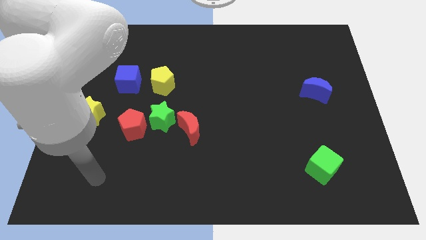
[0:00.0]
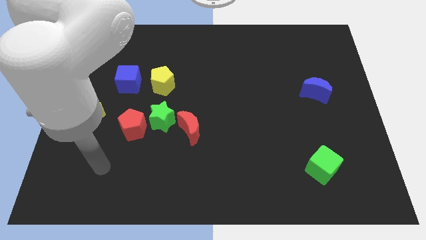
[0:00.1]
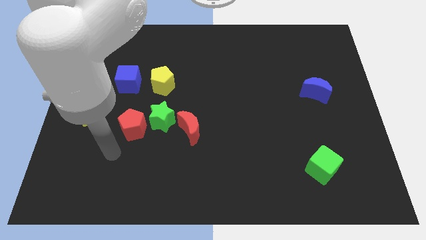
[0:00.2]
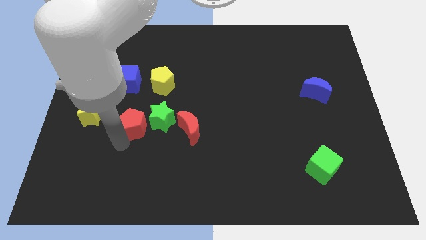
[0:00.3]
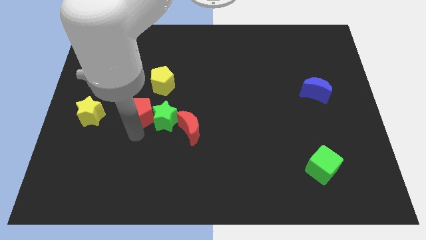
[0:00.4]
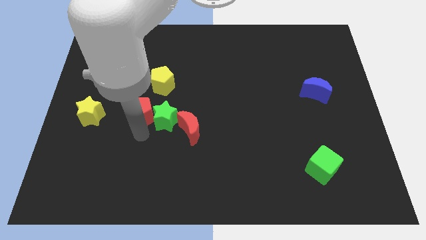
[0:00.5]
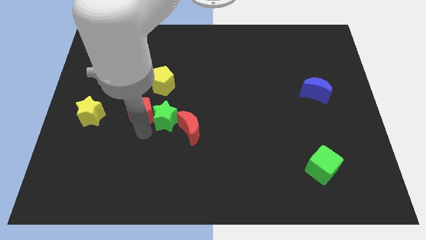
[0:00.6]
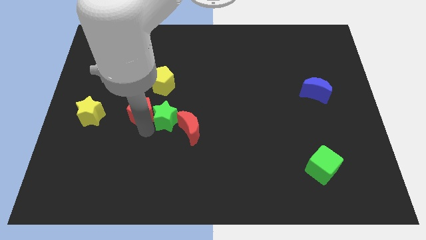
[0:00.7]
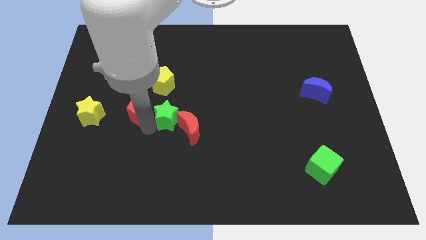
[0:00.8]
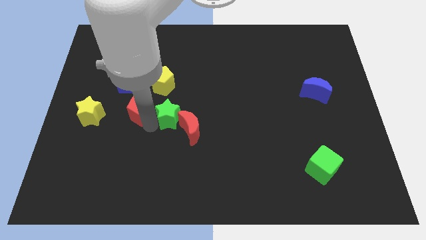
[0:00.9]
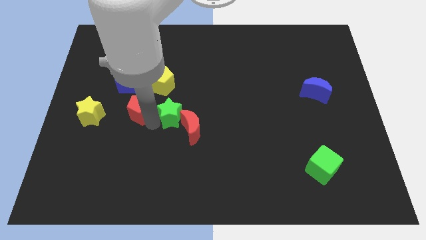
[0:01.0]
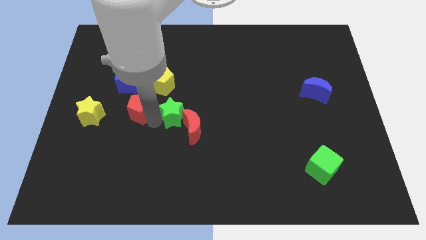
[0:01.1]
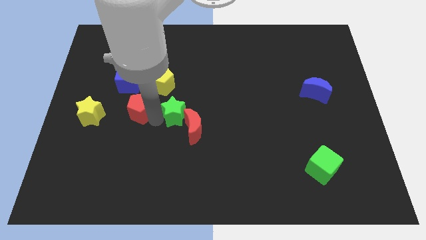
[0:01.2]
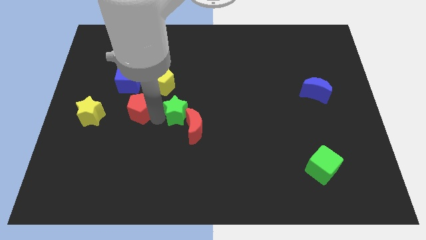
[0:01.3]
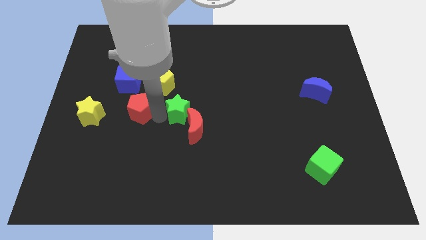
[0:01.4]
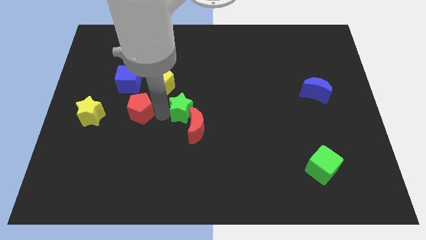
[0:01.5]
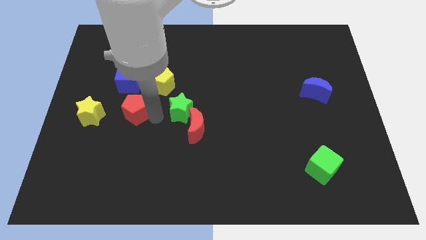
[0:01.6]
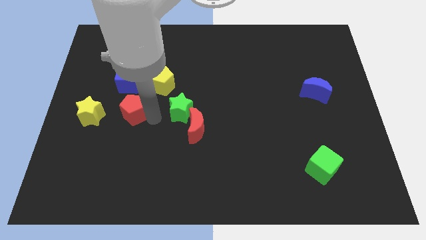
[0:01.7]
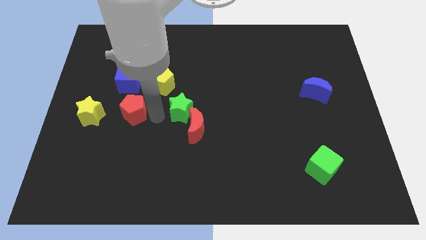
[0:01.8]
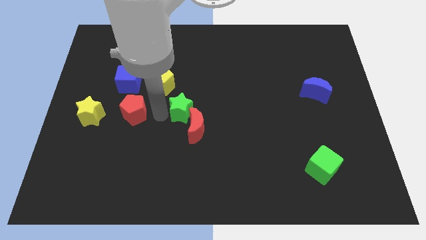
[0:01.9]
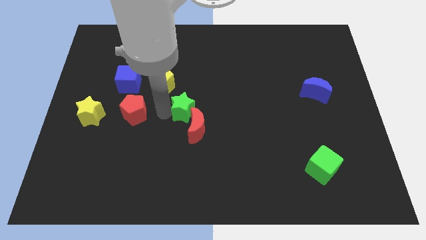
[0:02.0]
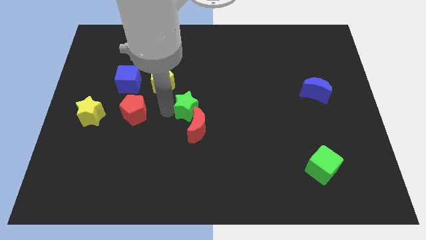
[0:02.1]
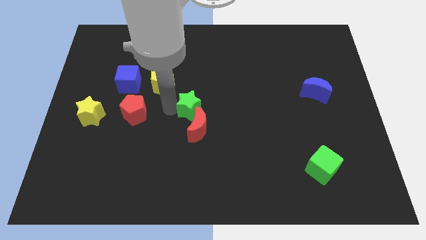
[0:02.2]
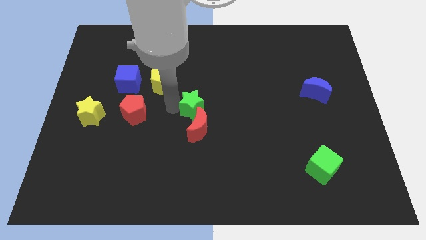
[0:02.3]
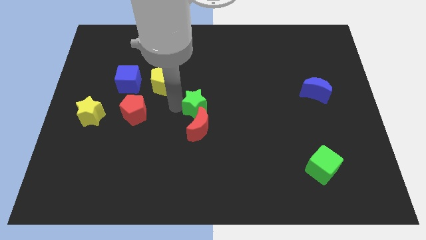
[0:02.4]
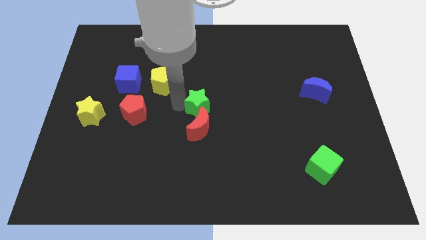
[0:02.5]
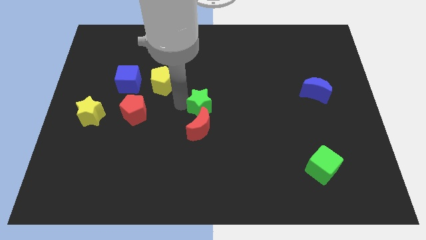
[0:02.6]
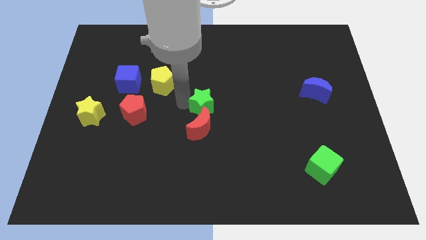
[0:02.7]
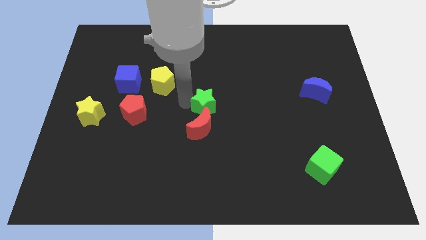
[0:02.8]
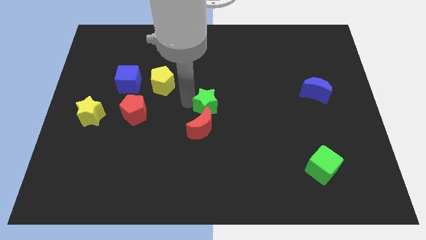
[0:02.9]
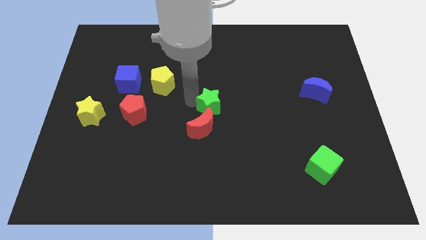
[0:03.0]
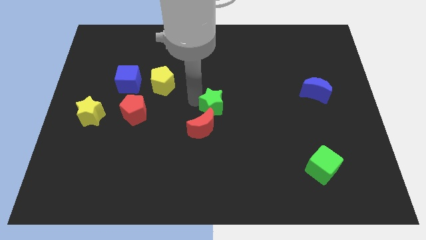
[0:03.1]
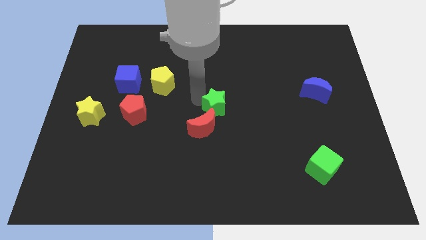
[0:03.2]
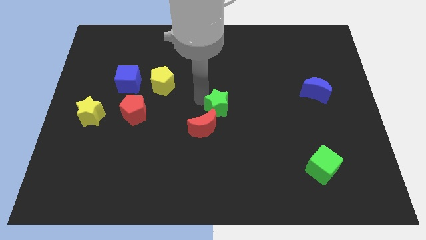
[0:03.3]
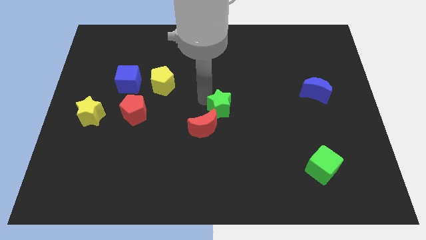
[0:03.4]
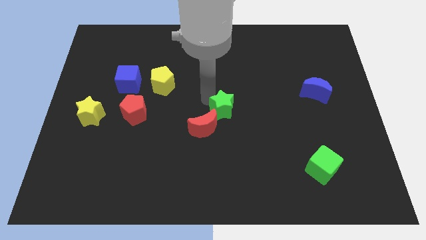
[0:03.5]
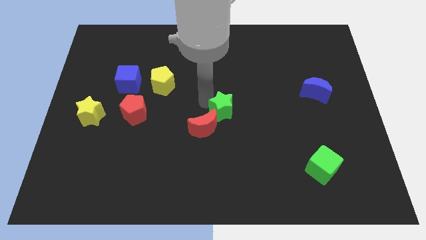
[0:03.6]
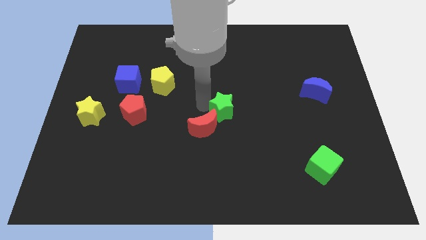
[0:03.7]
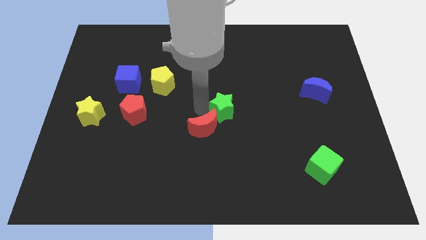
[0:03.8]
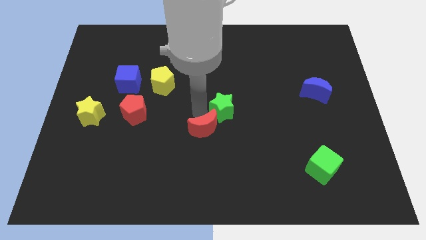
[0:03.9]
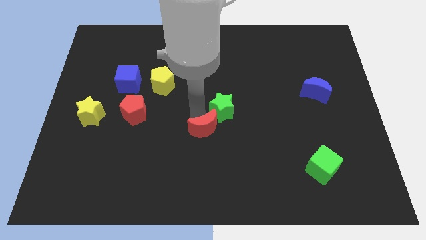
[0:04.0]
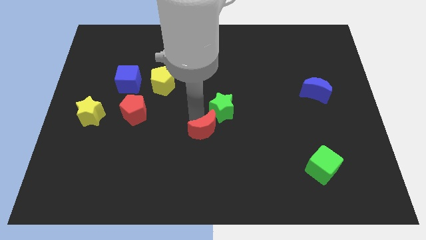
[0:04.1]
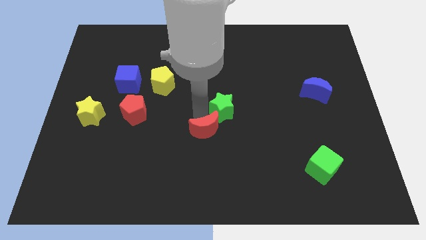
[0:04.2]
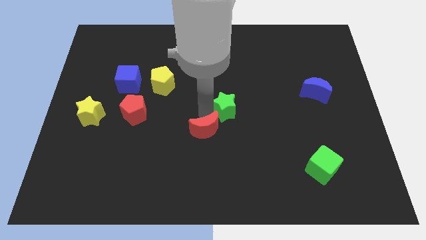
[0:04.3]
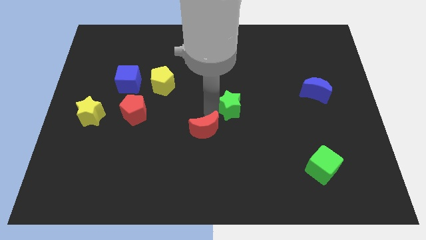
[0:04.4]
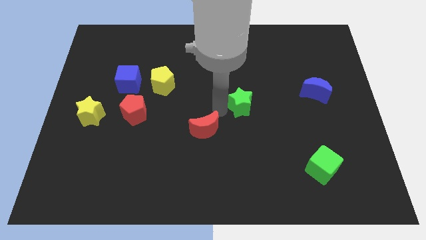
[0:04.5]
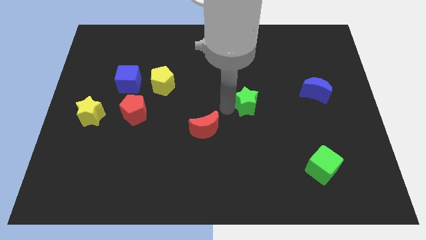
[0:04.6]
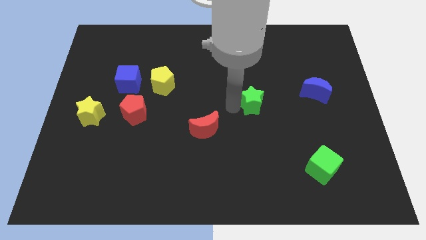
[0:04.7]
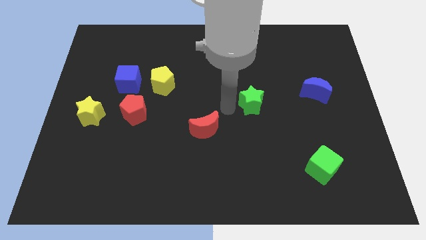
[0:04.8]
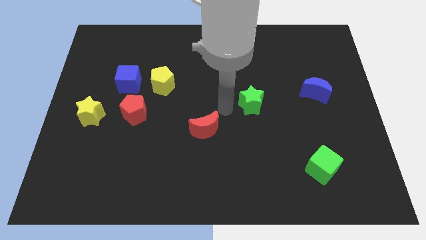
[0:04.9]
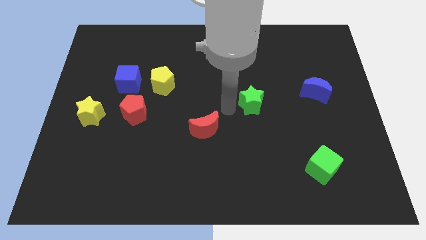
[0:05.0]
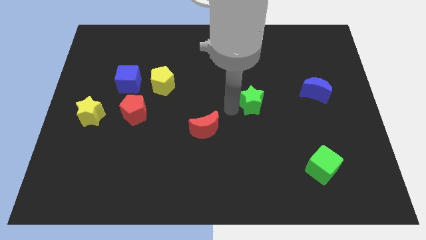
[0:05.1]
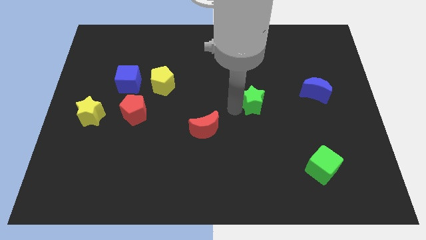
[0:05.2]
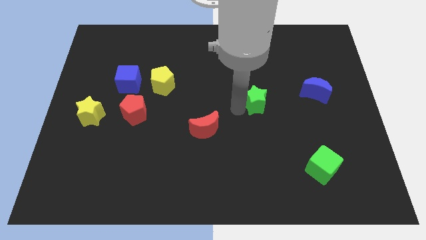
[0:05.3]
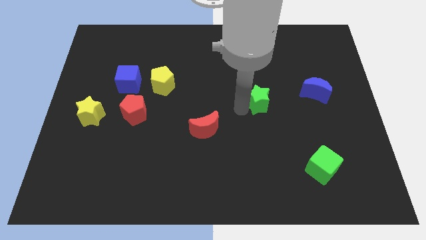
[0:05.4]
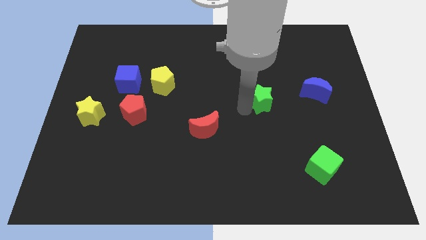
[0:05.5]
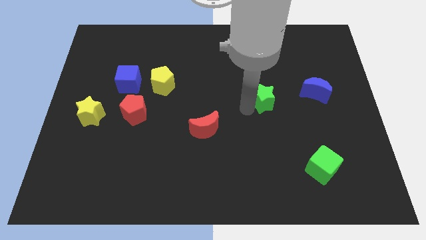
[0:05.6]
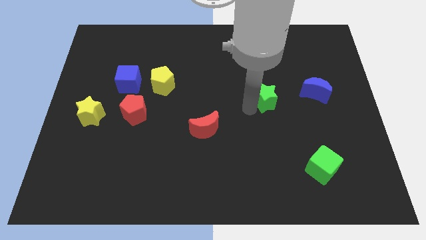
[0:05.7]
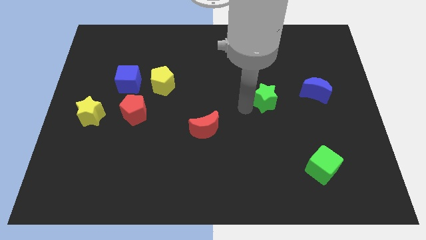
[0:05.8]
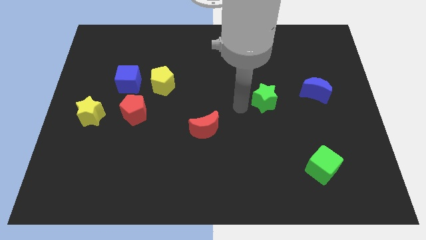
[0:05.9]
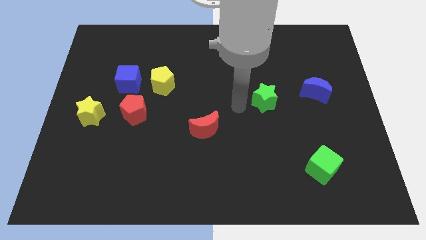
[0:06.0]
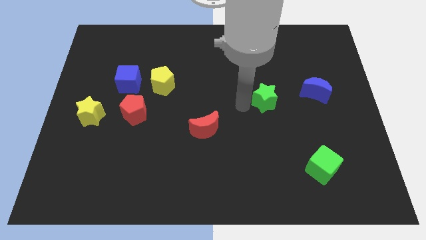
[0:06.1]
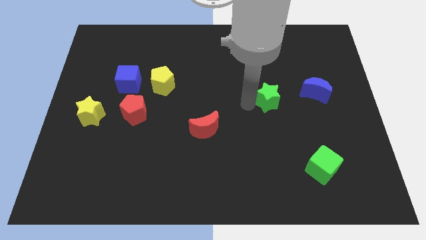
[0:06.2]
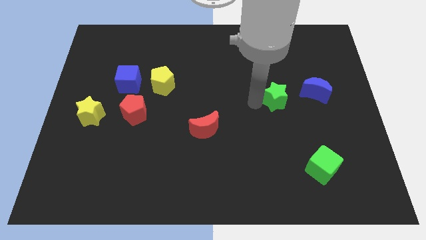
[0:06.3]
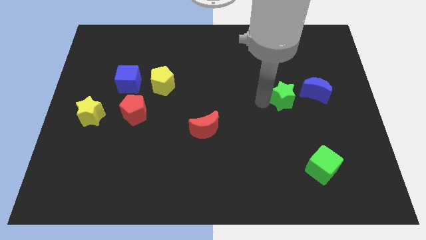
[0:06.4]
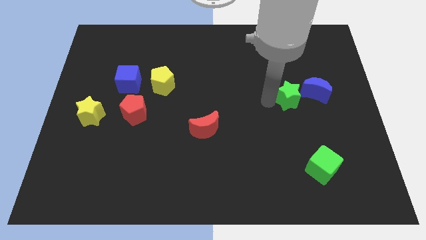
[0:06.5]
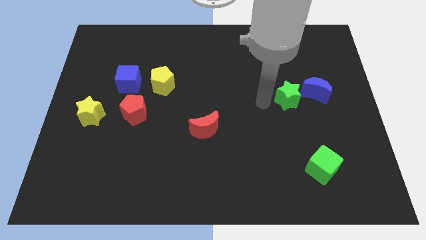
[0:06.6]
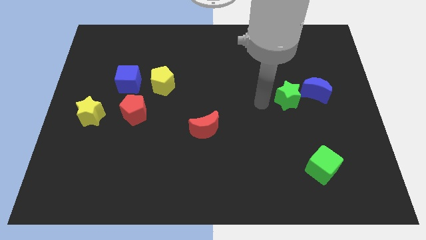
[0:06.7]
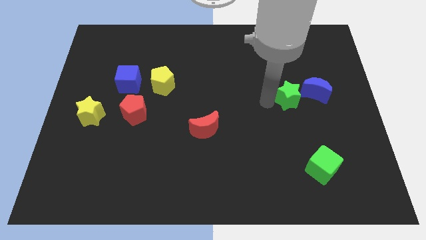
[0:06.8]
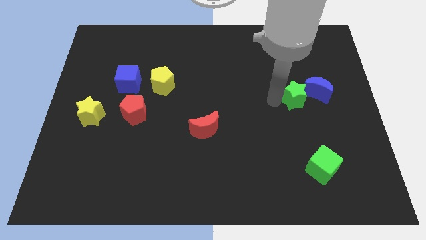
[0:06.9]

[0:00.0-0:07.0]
slide the green star close to the blue moon

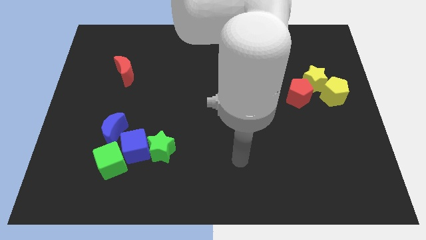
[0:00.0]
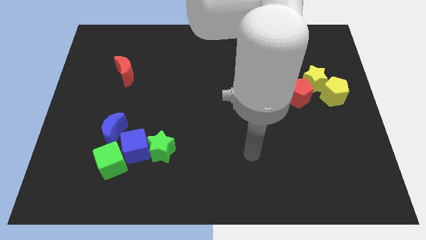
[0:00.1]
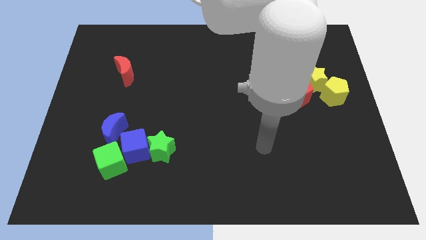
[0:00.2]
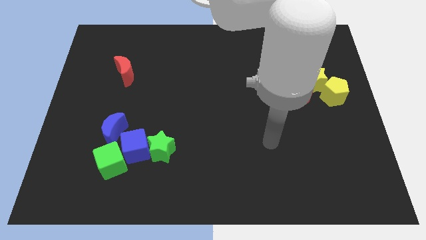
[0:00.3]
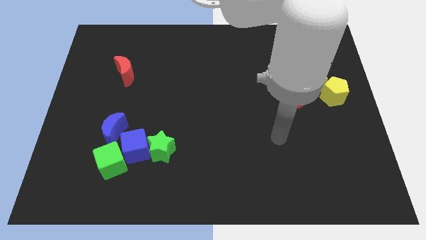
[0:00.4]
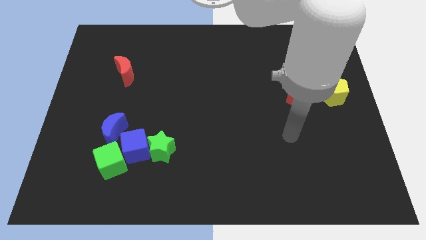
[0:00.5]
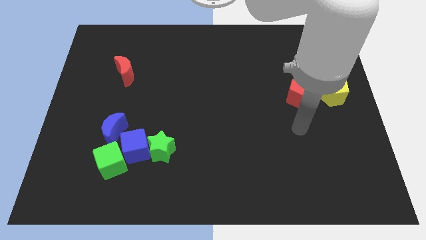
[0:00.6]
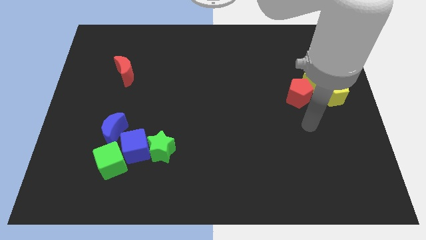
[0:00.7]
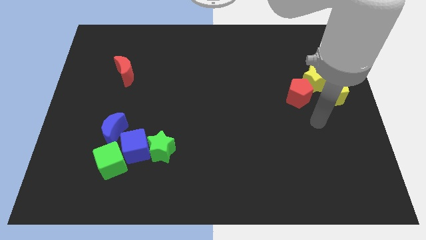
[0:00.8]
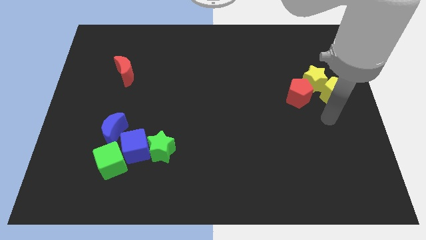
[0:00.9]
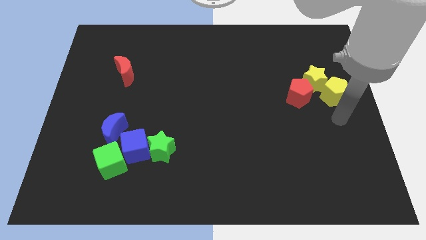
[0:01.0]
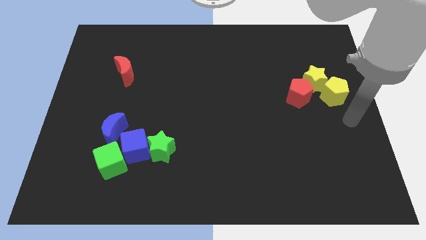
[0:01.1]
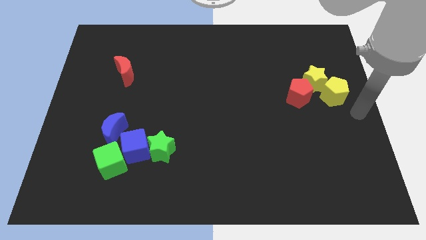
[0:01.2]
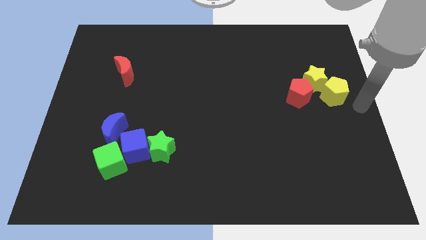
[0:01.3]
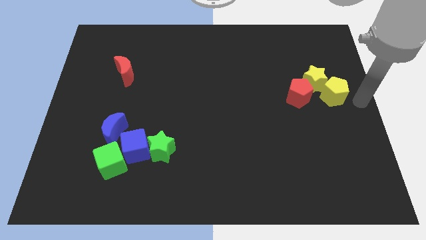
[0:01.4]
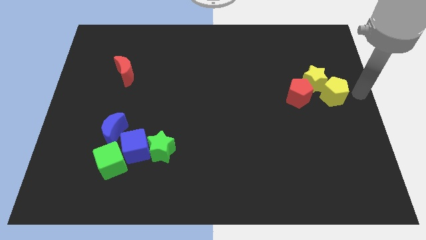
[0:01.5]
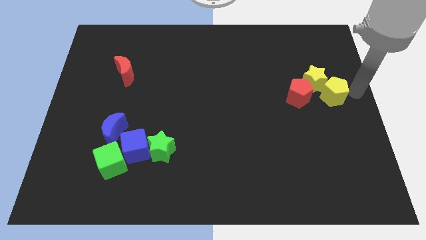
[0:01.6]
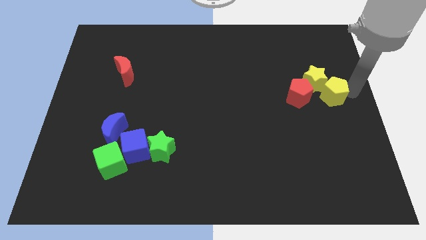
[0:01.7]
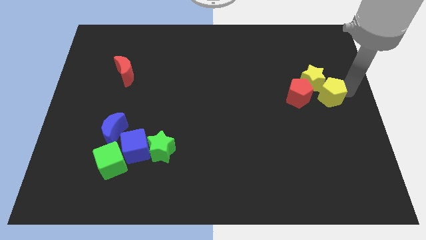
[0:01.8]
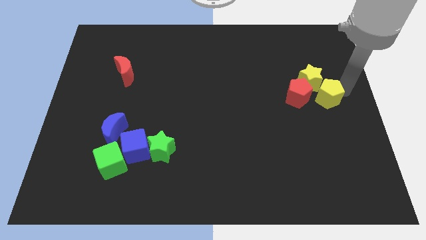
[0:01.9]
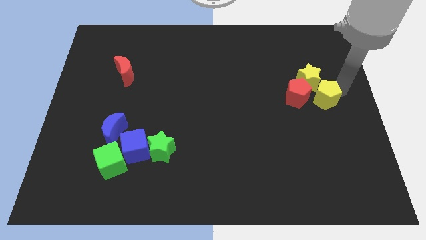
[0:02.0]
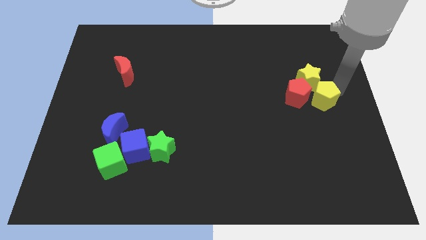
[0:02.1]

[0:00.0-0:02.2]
move the yellow pentagon next to the red pentagon
